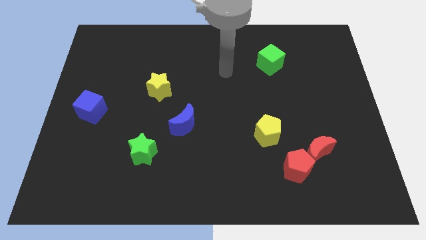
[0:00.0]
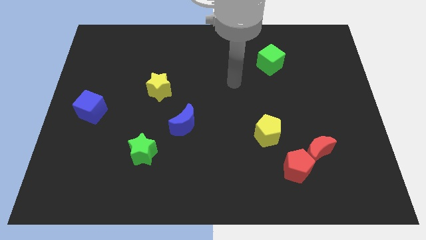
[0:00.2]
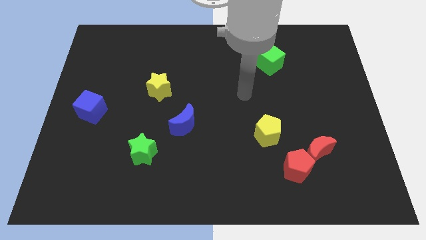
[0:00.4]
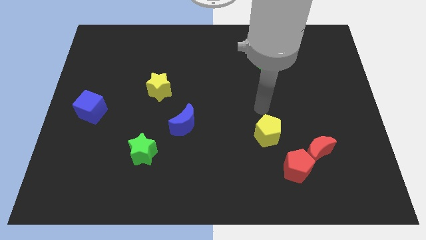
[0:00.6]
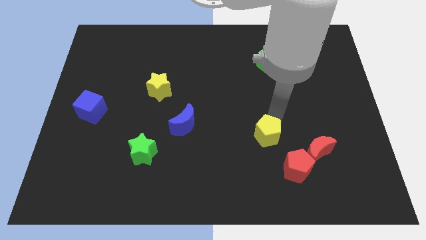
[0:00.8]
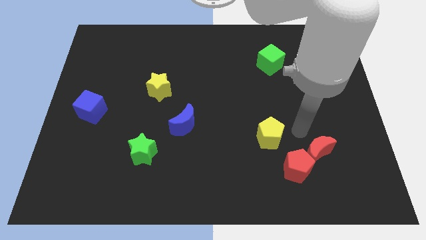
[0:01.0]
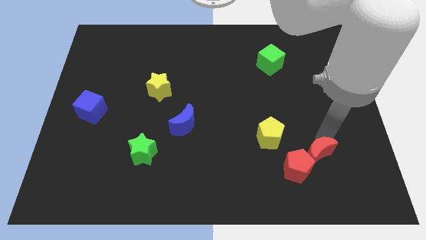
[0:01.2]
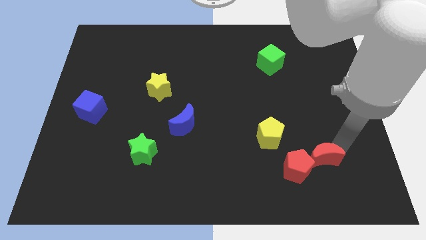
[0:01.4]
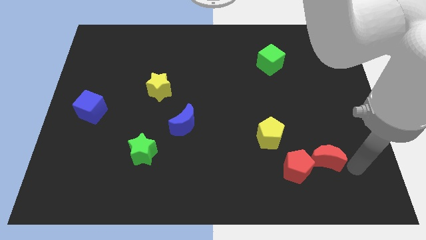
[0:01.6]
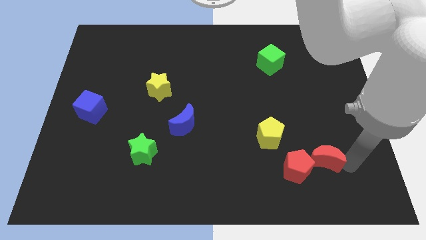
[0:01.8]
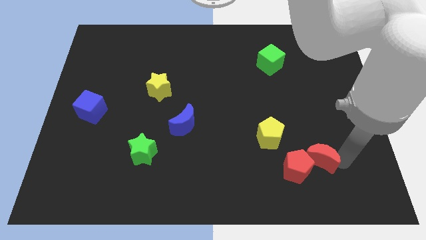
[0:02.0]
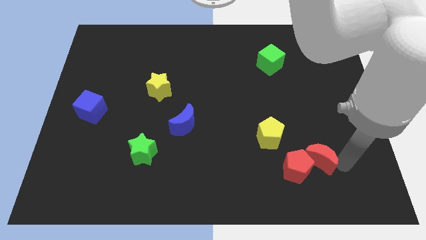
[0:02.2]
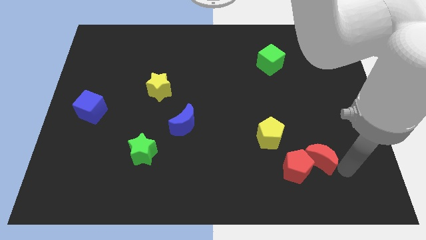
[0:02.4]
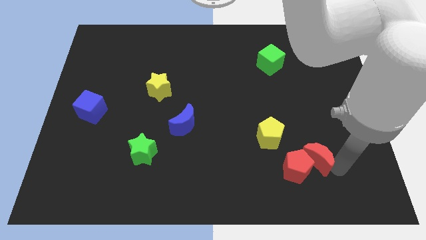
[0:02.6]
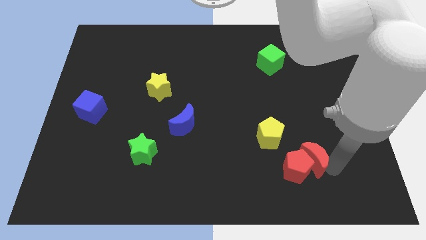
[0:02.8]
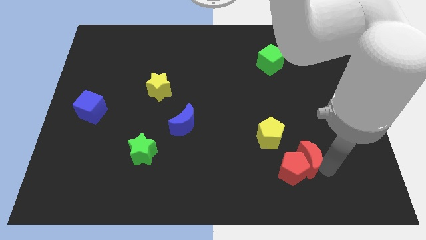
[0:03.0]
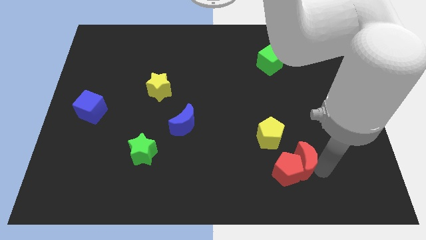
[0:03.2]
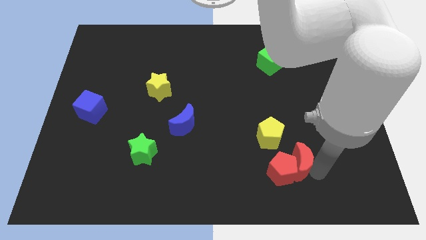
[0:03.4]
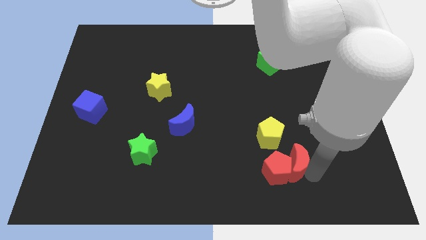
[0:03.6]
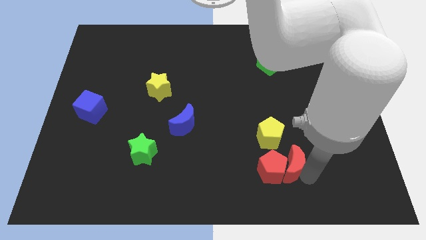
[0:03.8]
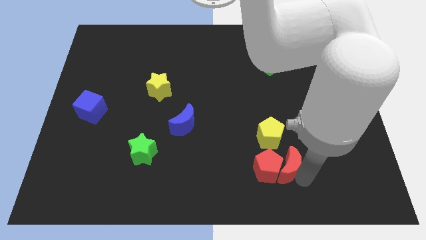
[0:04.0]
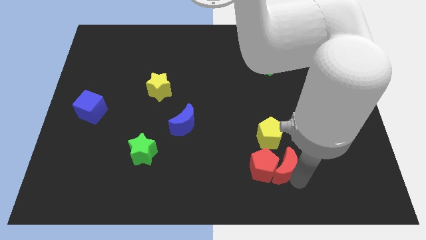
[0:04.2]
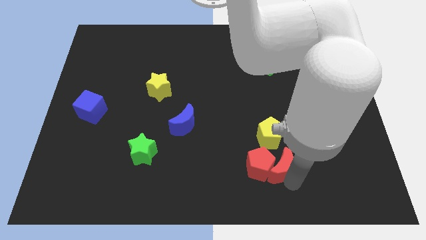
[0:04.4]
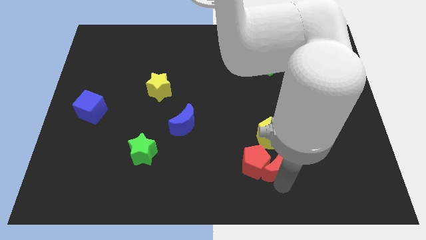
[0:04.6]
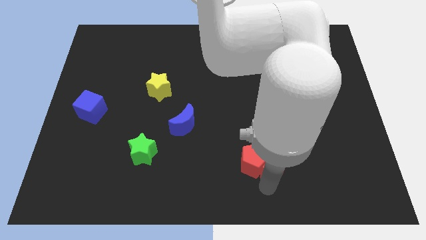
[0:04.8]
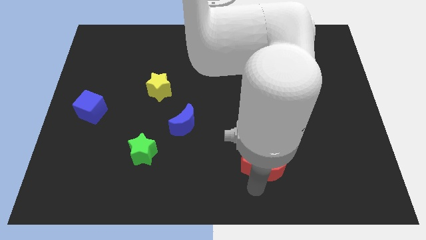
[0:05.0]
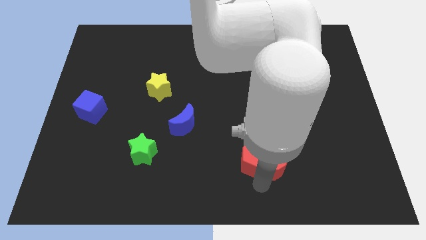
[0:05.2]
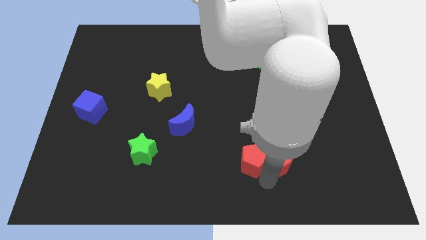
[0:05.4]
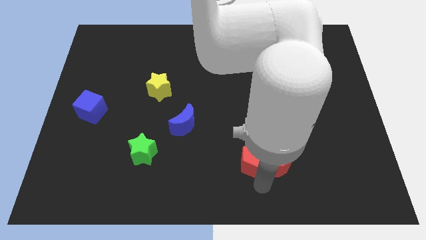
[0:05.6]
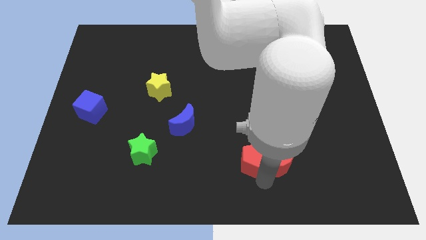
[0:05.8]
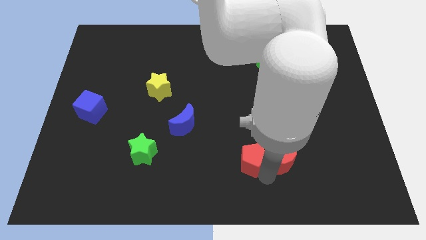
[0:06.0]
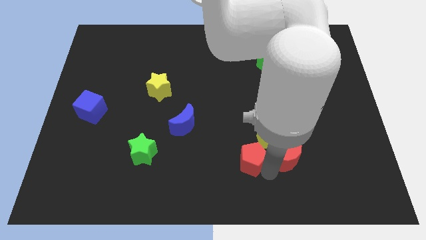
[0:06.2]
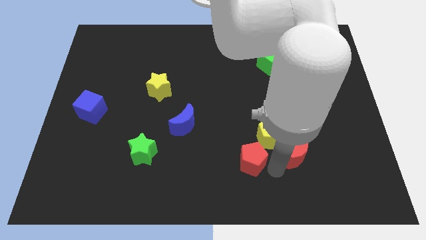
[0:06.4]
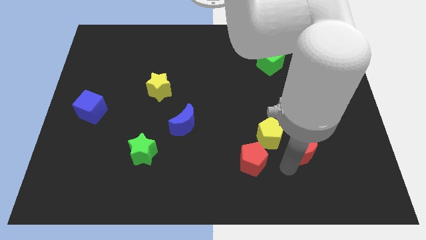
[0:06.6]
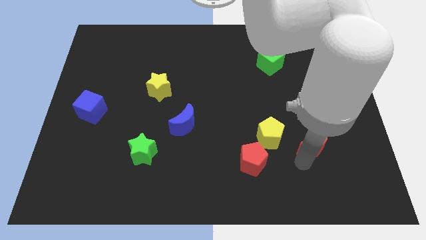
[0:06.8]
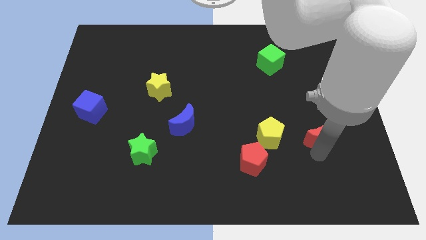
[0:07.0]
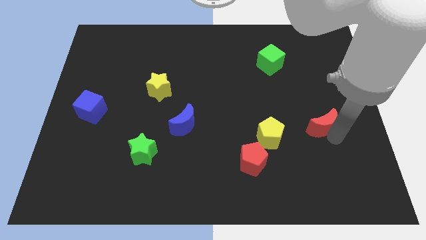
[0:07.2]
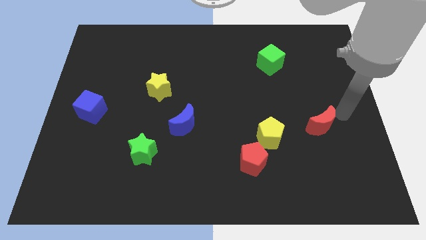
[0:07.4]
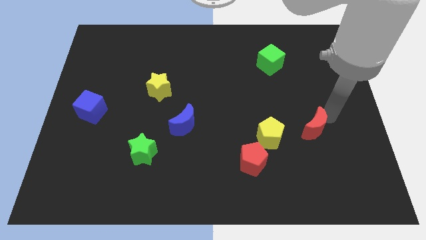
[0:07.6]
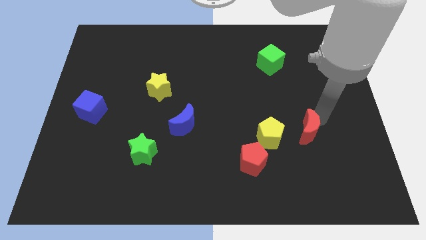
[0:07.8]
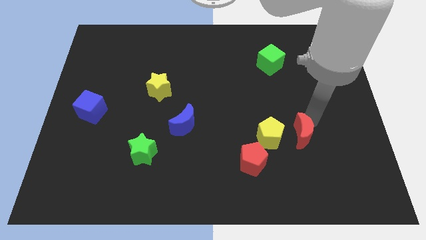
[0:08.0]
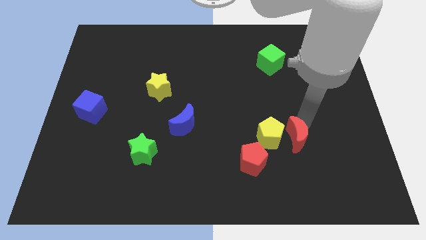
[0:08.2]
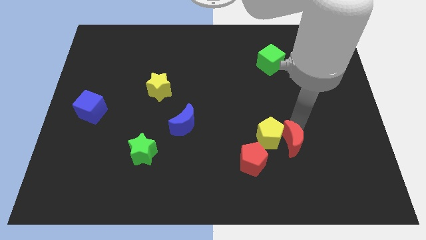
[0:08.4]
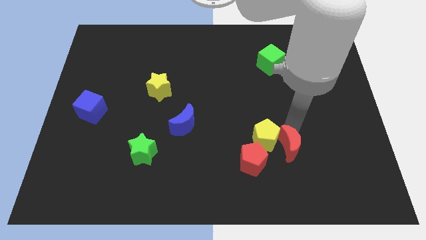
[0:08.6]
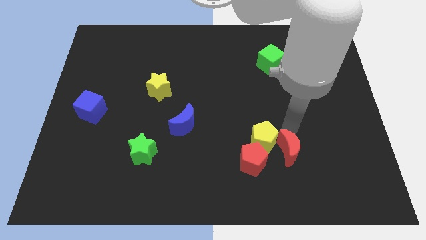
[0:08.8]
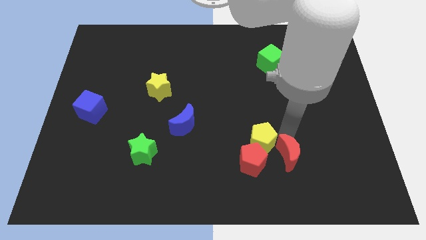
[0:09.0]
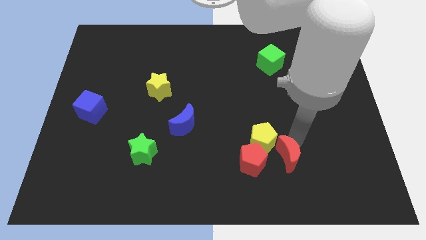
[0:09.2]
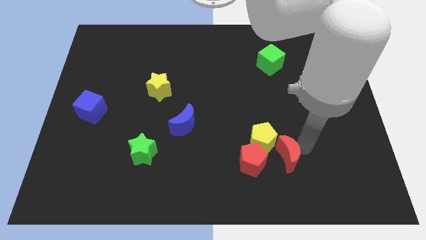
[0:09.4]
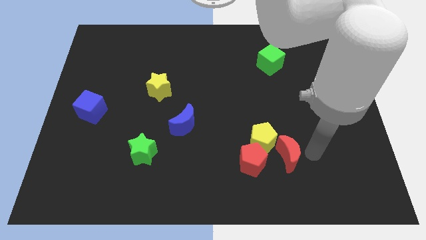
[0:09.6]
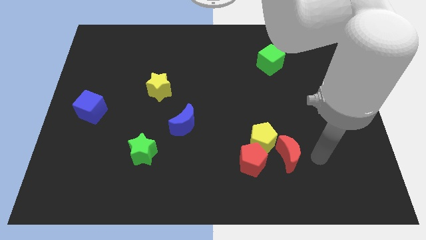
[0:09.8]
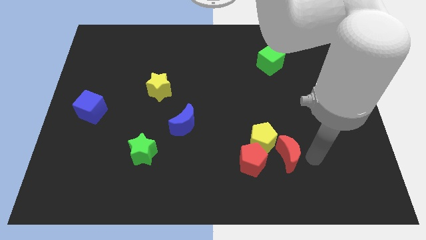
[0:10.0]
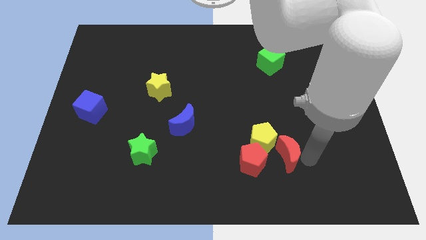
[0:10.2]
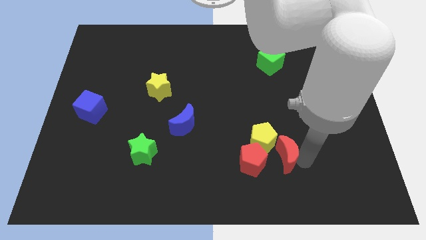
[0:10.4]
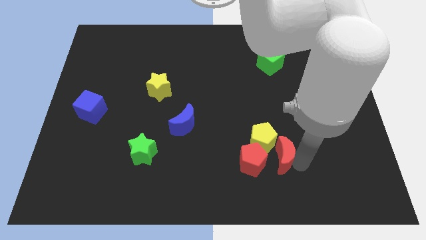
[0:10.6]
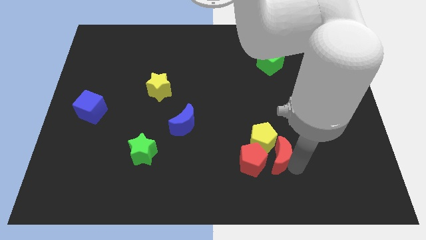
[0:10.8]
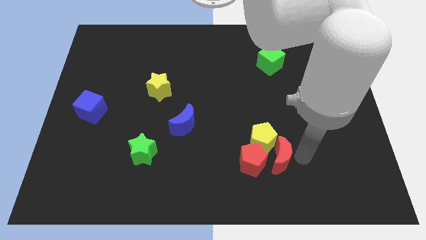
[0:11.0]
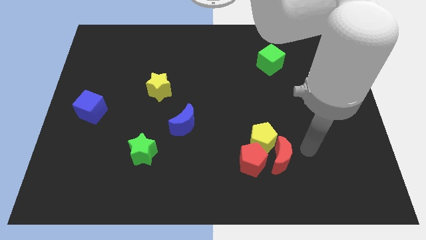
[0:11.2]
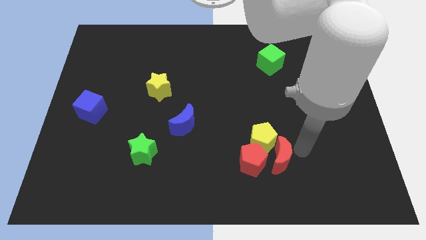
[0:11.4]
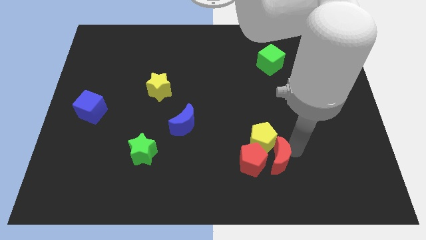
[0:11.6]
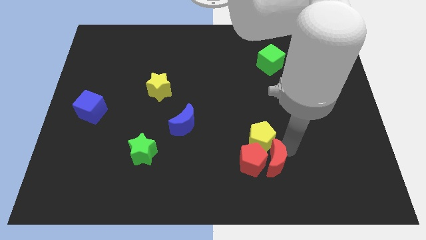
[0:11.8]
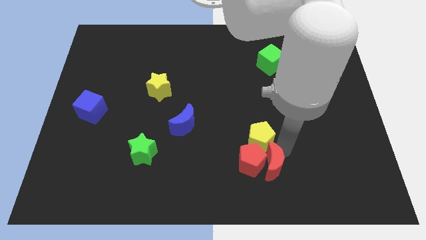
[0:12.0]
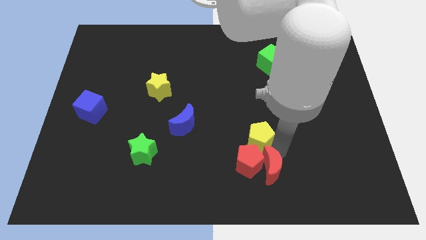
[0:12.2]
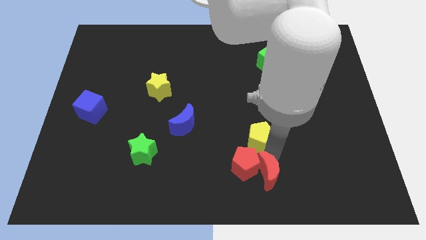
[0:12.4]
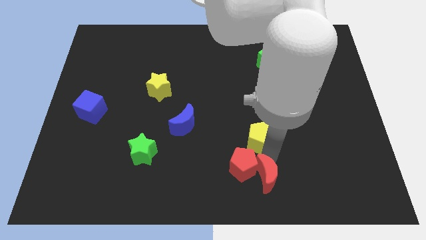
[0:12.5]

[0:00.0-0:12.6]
push the red moon to the bottom
